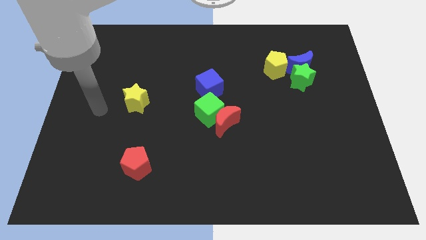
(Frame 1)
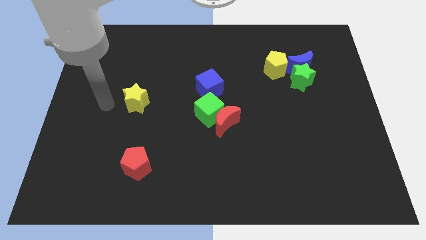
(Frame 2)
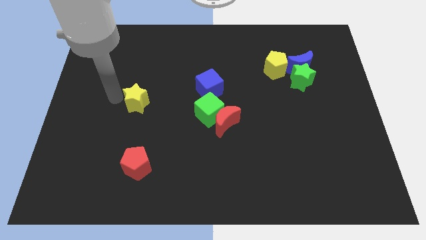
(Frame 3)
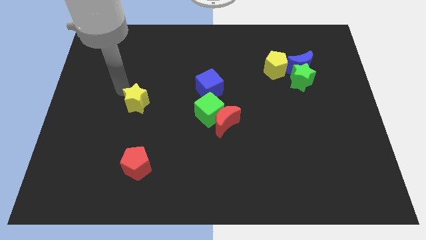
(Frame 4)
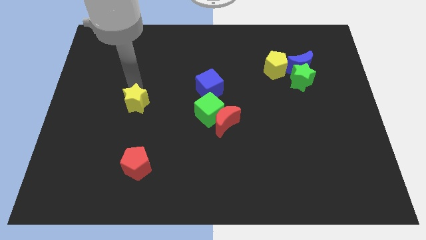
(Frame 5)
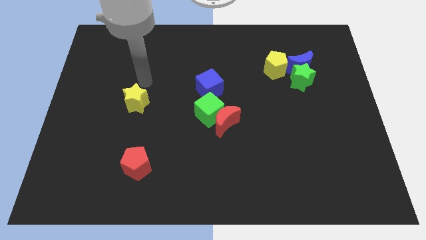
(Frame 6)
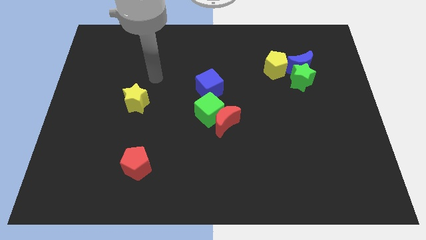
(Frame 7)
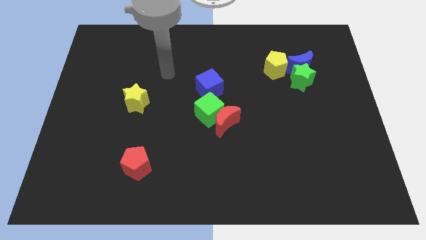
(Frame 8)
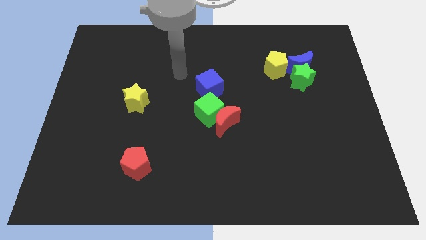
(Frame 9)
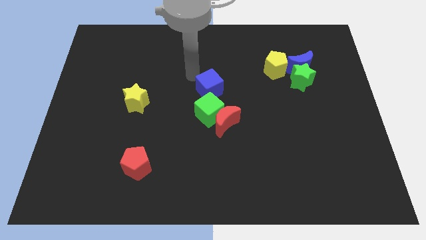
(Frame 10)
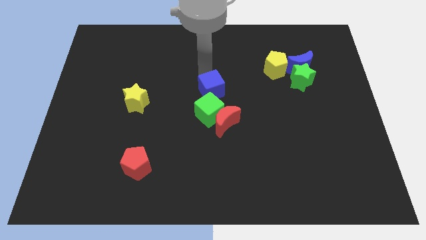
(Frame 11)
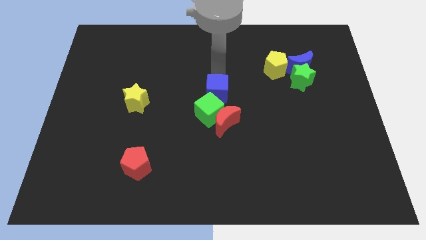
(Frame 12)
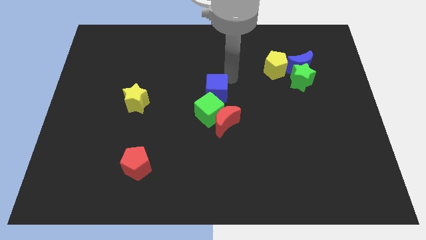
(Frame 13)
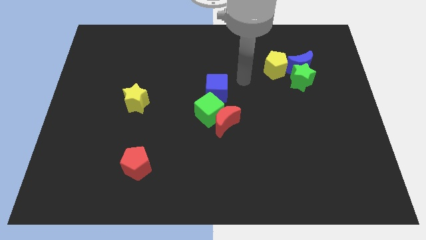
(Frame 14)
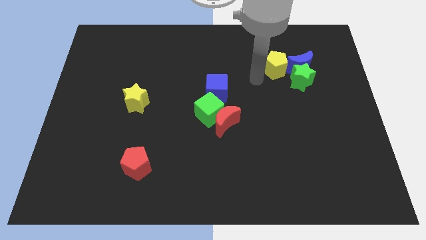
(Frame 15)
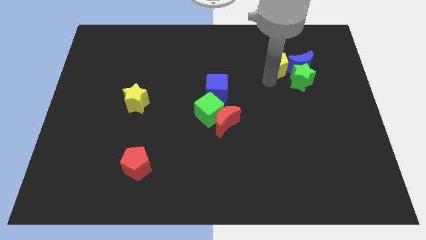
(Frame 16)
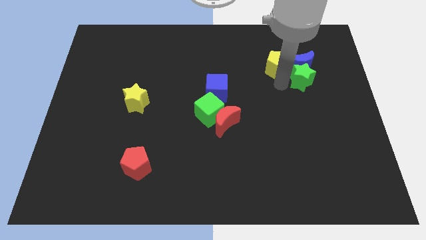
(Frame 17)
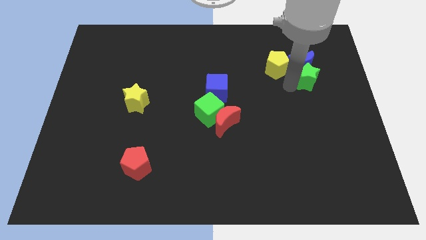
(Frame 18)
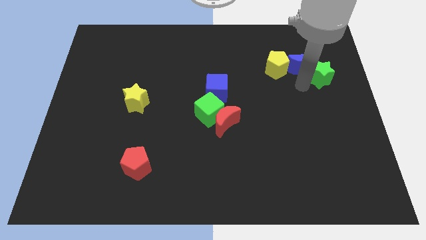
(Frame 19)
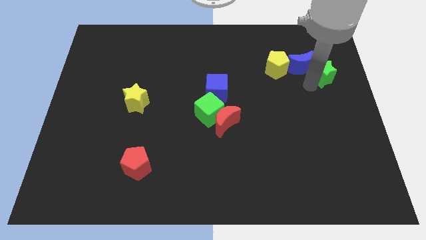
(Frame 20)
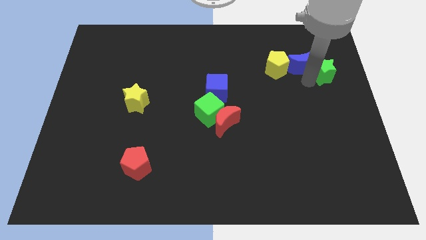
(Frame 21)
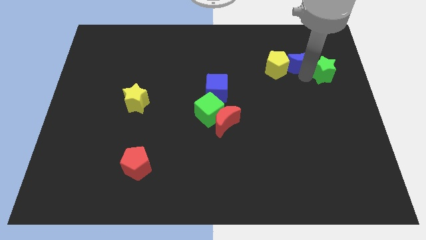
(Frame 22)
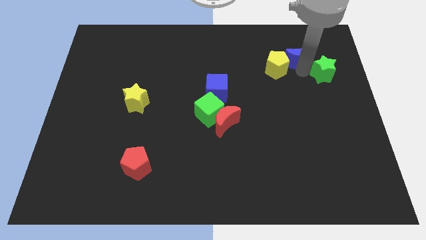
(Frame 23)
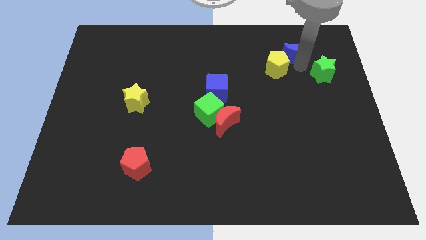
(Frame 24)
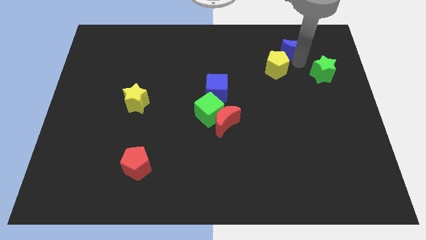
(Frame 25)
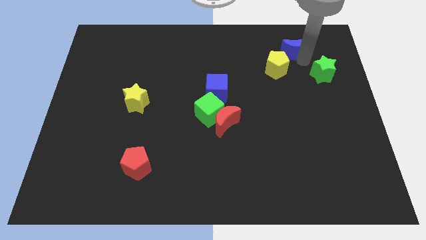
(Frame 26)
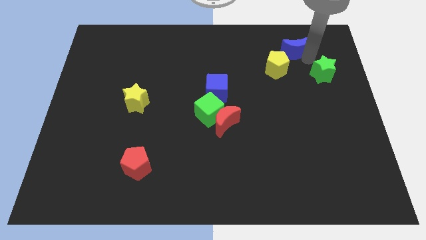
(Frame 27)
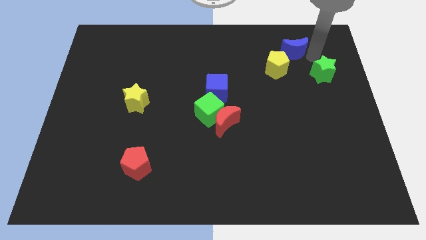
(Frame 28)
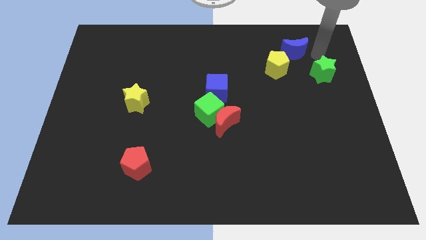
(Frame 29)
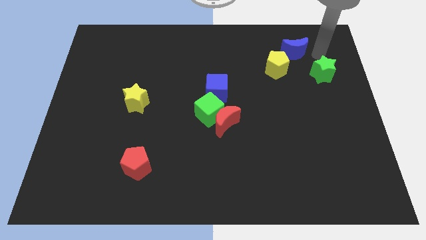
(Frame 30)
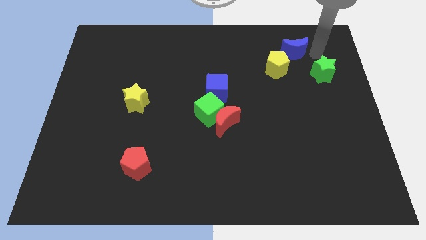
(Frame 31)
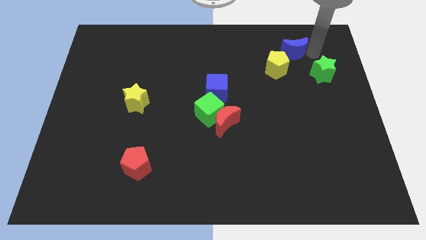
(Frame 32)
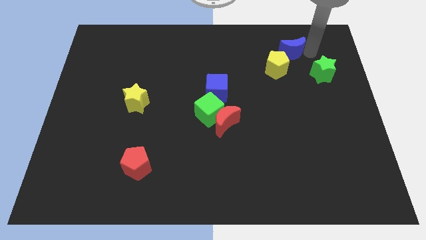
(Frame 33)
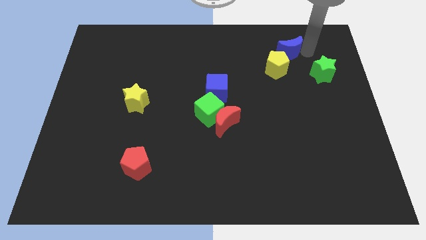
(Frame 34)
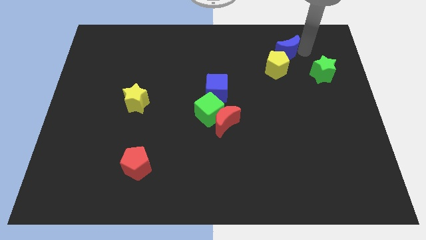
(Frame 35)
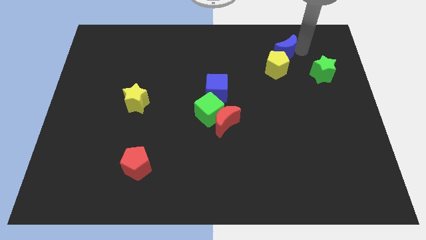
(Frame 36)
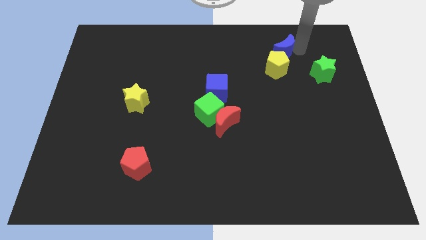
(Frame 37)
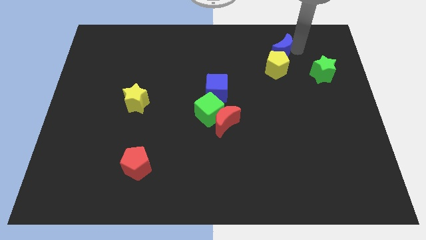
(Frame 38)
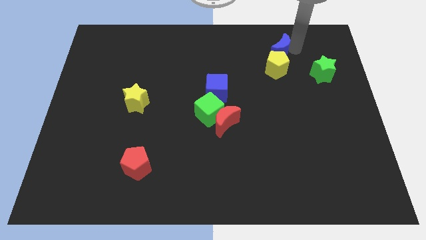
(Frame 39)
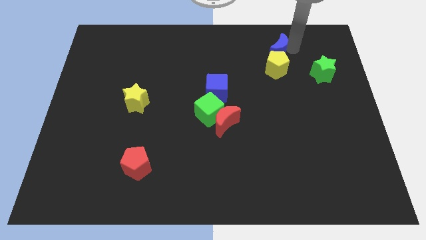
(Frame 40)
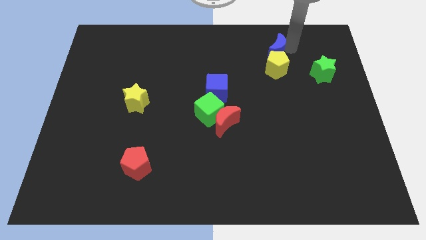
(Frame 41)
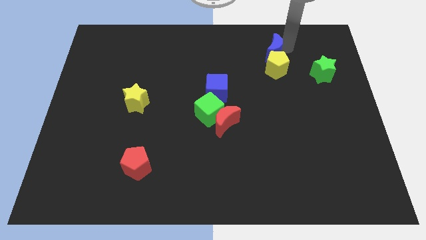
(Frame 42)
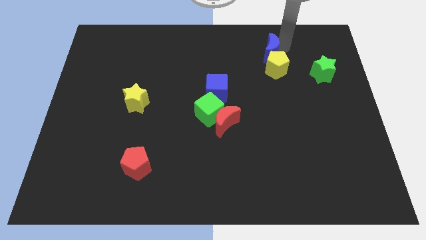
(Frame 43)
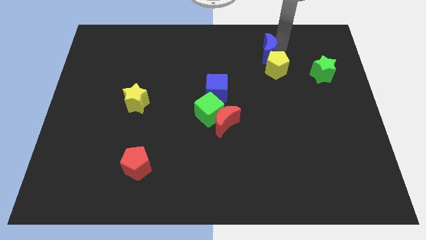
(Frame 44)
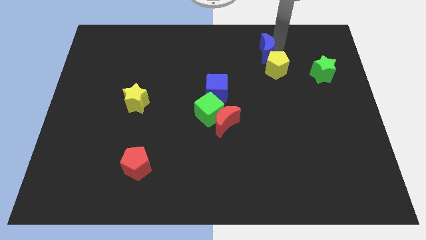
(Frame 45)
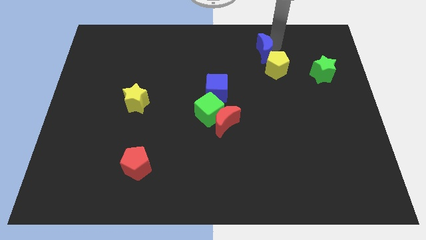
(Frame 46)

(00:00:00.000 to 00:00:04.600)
push the blue moon left a little

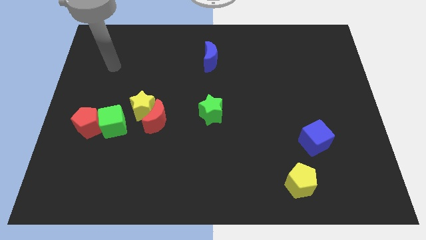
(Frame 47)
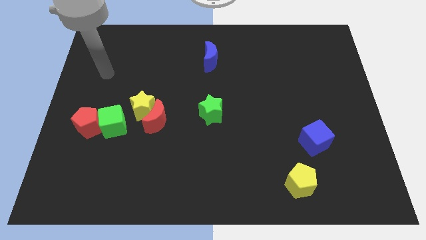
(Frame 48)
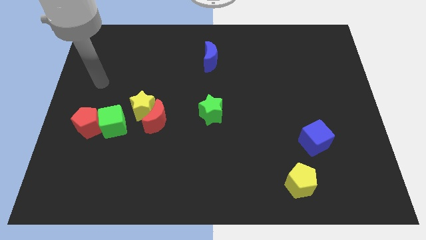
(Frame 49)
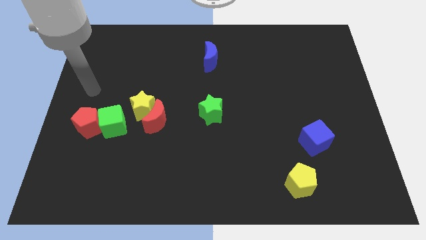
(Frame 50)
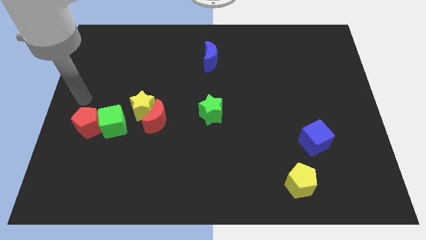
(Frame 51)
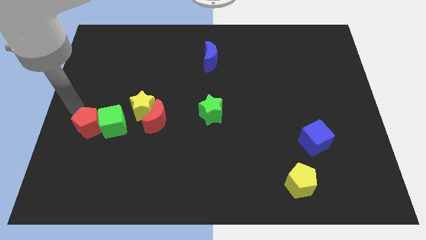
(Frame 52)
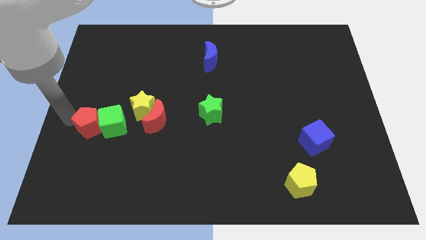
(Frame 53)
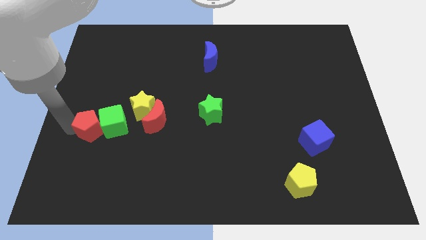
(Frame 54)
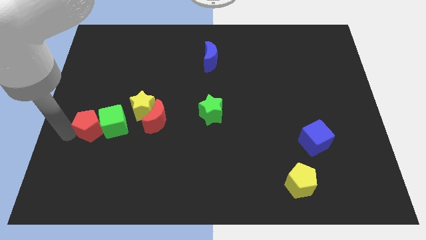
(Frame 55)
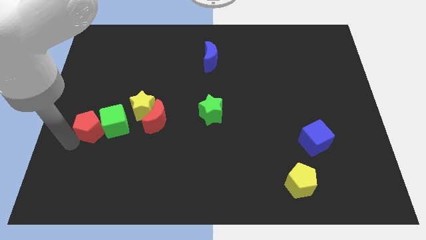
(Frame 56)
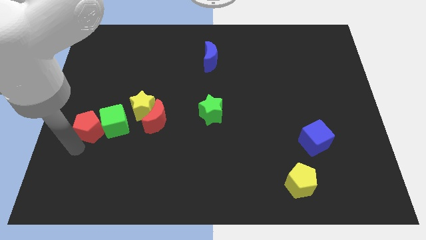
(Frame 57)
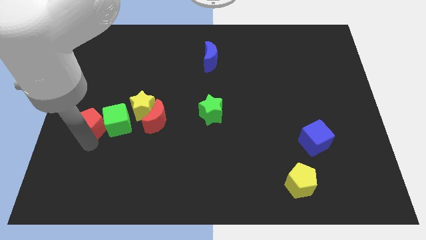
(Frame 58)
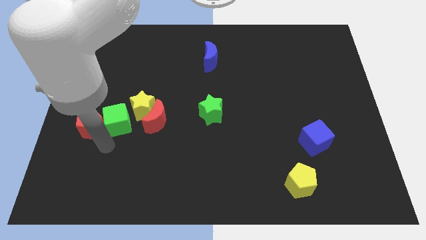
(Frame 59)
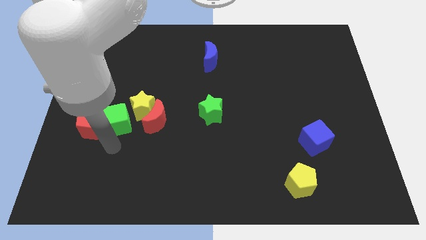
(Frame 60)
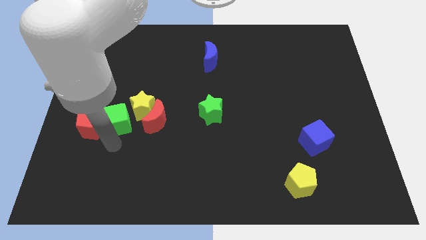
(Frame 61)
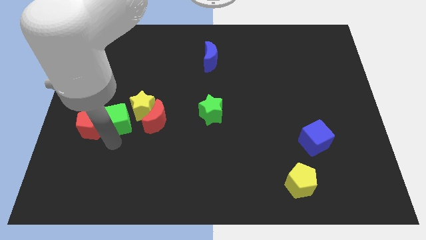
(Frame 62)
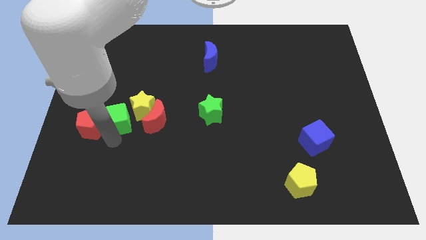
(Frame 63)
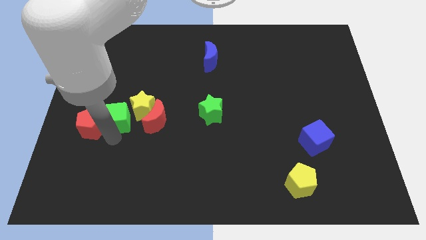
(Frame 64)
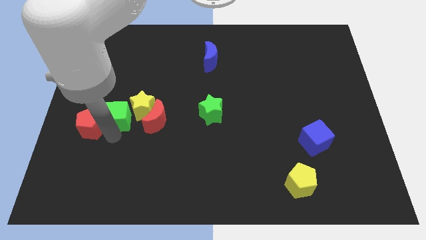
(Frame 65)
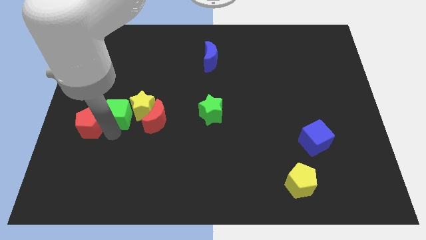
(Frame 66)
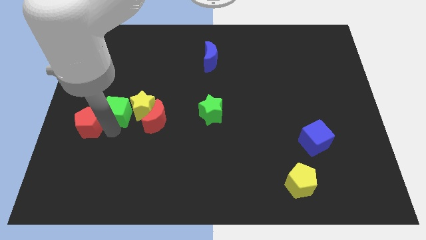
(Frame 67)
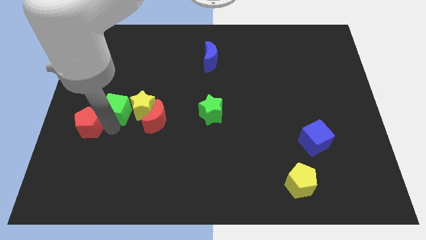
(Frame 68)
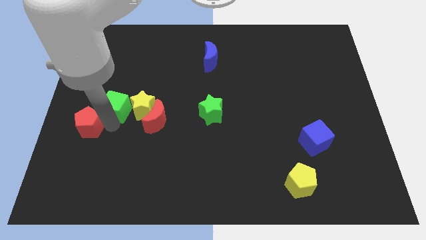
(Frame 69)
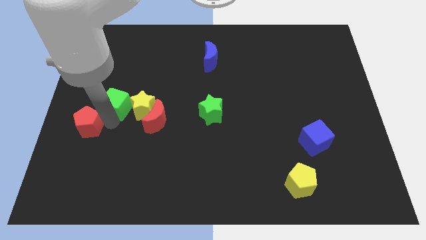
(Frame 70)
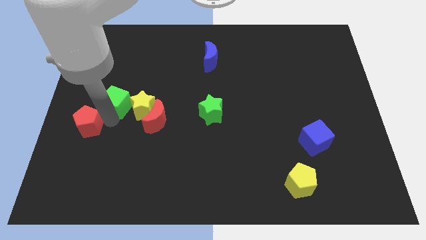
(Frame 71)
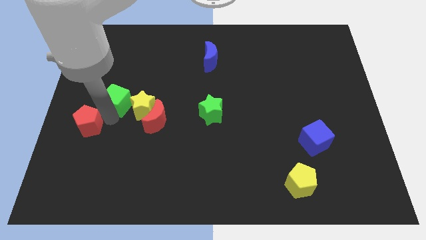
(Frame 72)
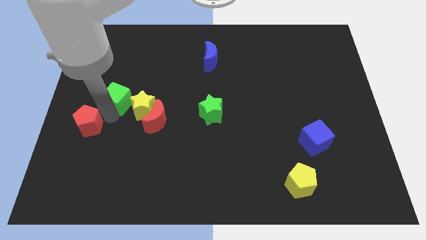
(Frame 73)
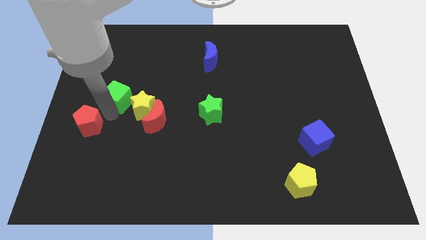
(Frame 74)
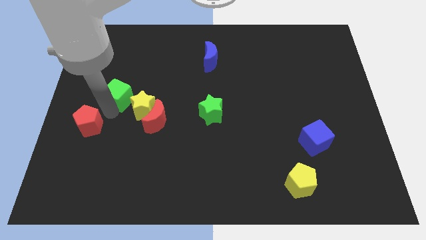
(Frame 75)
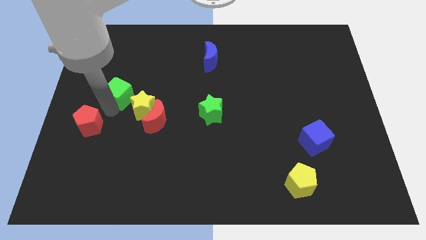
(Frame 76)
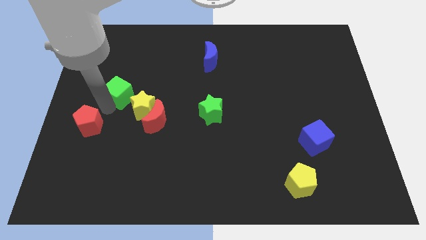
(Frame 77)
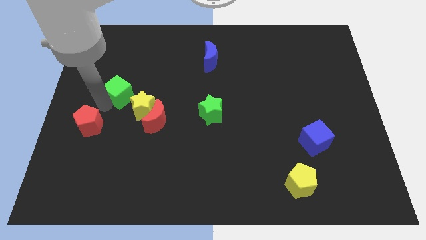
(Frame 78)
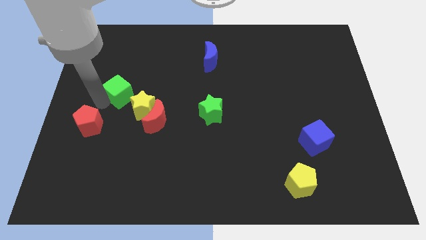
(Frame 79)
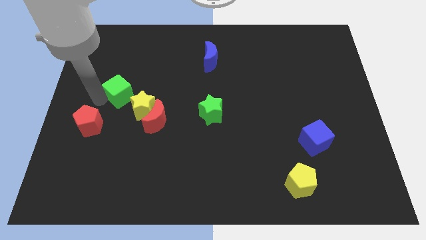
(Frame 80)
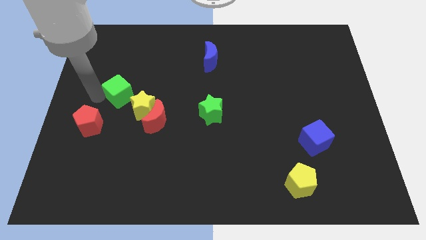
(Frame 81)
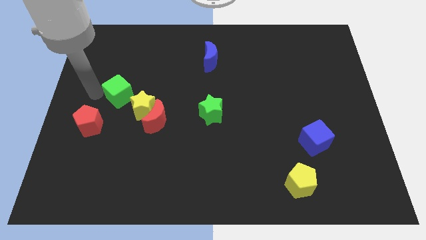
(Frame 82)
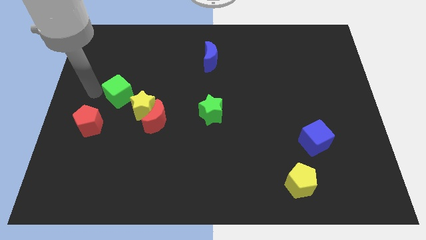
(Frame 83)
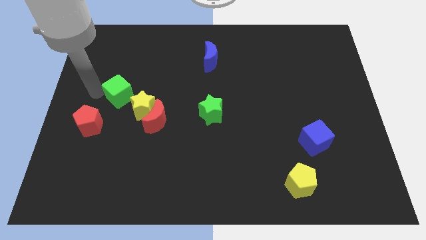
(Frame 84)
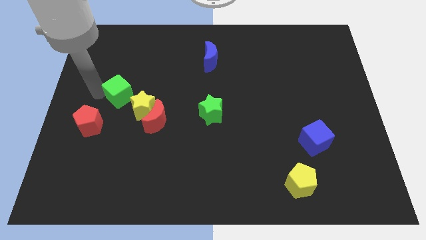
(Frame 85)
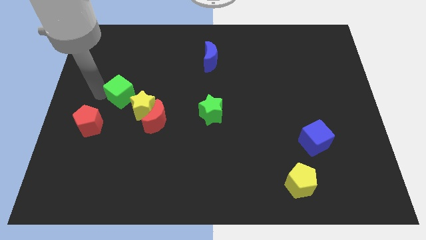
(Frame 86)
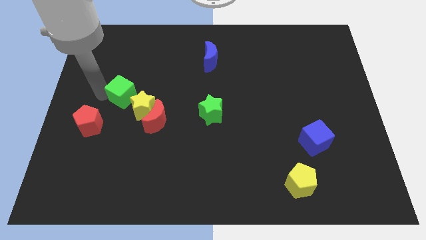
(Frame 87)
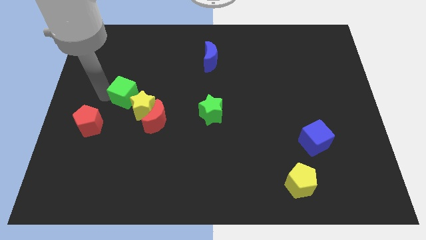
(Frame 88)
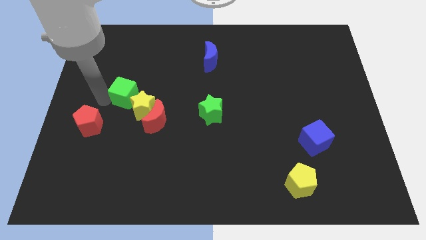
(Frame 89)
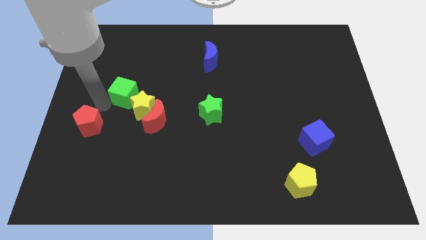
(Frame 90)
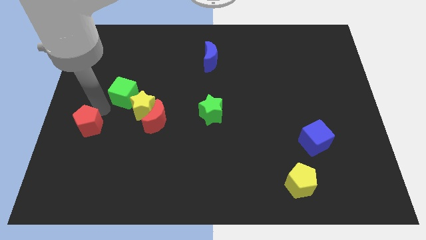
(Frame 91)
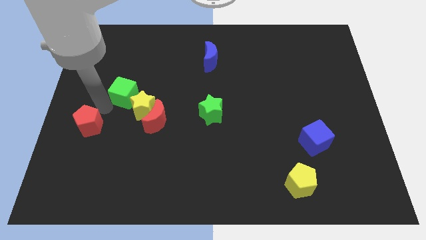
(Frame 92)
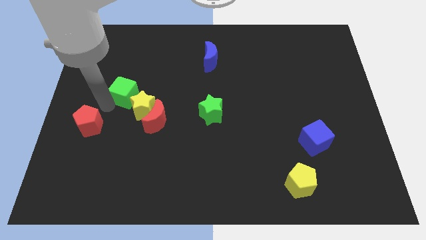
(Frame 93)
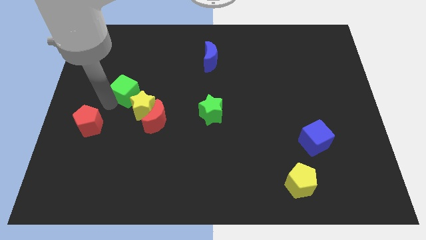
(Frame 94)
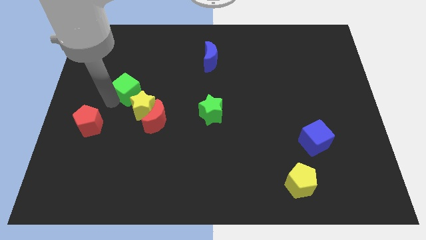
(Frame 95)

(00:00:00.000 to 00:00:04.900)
push the green cube a little upwards and then to the right
